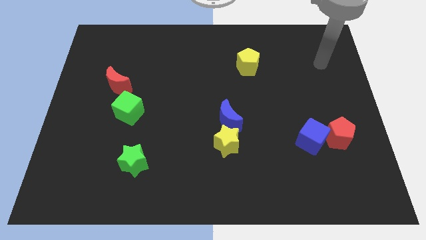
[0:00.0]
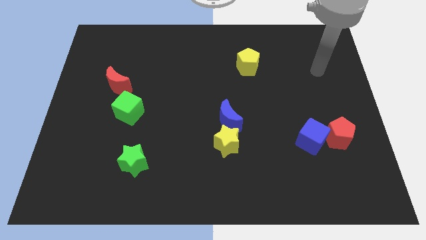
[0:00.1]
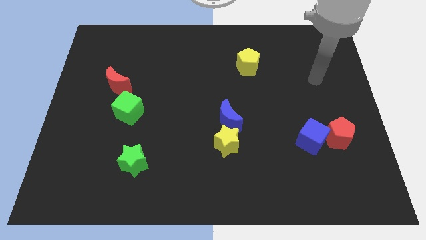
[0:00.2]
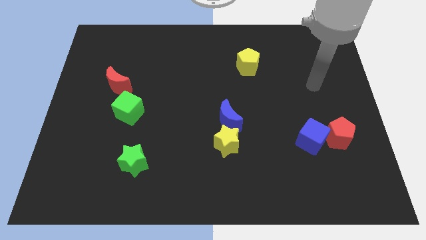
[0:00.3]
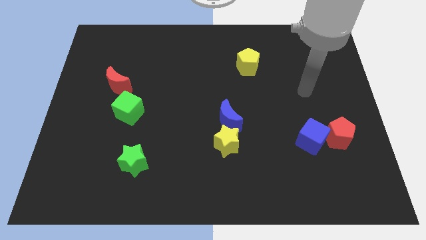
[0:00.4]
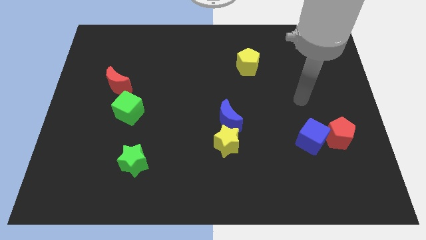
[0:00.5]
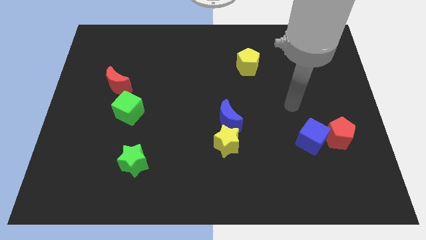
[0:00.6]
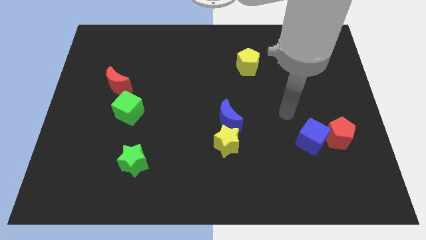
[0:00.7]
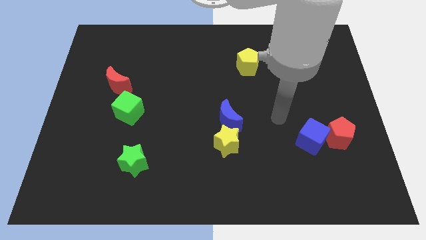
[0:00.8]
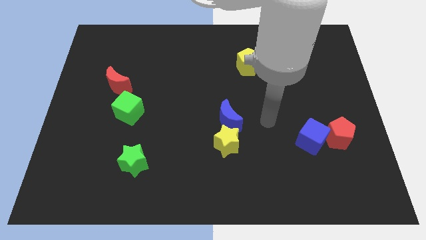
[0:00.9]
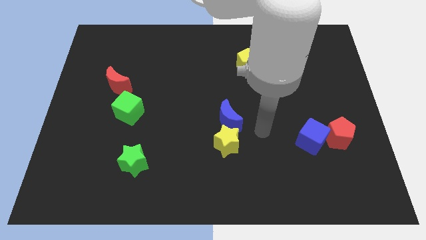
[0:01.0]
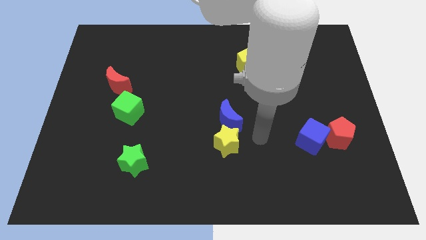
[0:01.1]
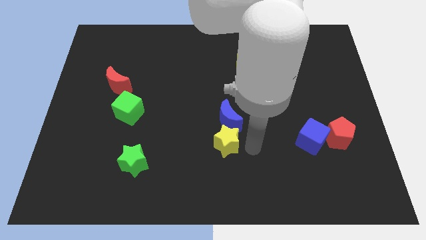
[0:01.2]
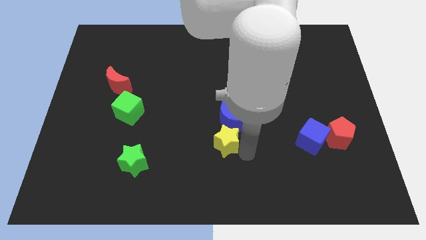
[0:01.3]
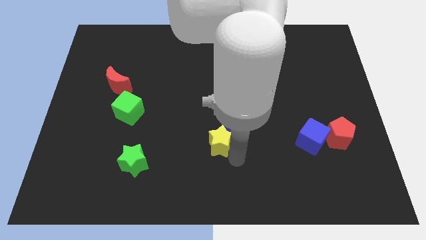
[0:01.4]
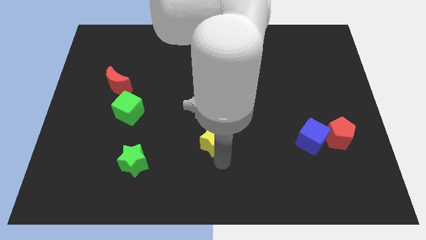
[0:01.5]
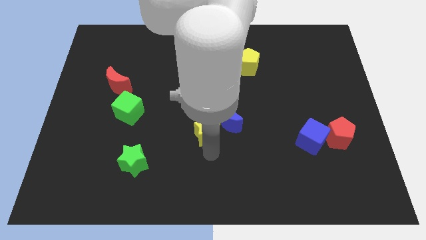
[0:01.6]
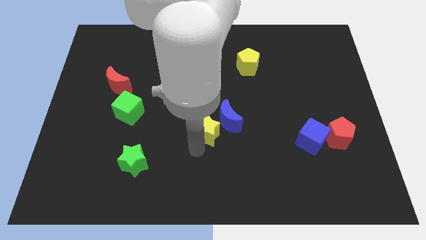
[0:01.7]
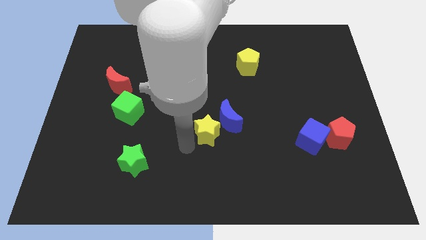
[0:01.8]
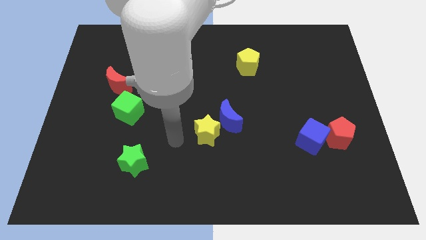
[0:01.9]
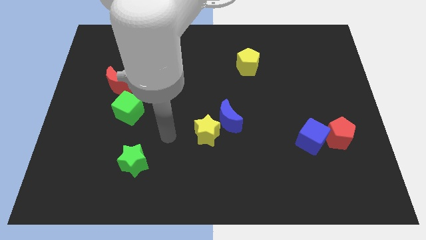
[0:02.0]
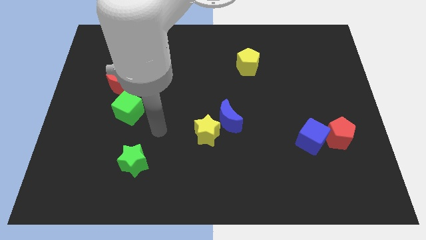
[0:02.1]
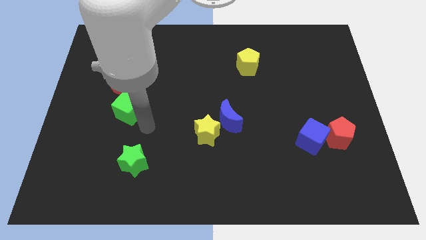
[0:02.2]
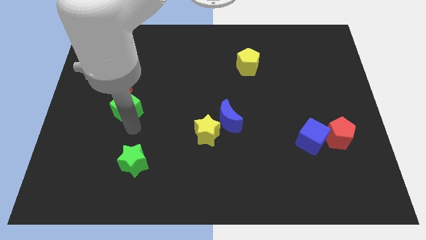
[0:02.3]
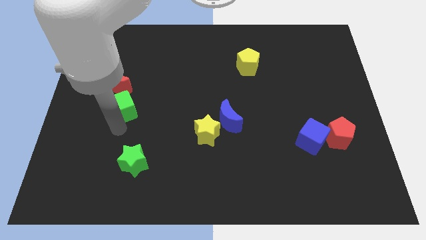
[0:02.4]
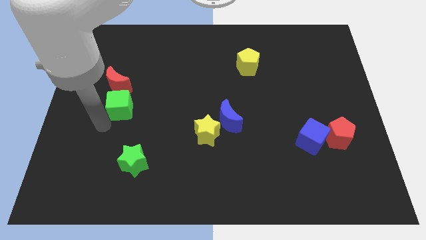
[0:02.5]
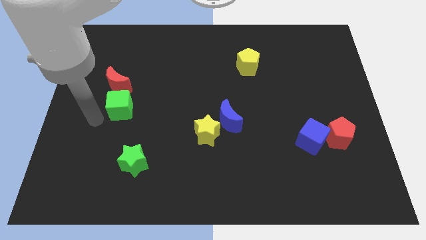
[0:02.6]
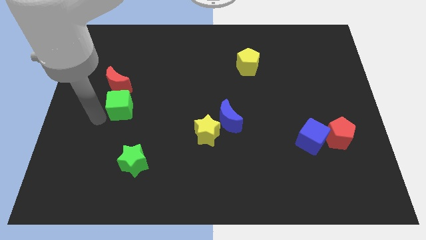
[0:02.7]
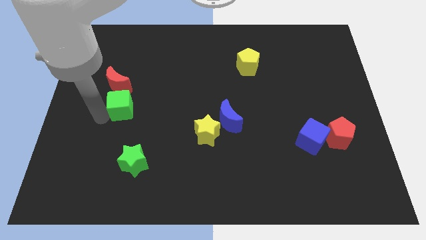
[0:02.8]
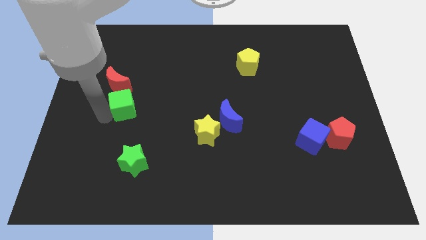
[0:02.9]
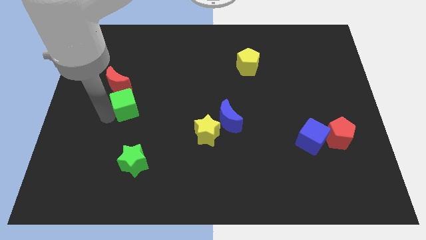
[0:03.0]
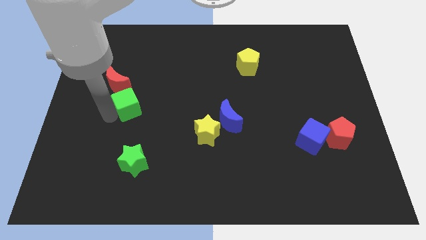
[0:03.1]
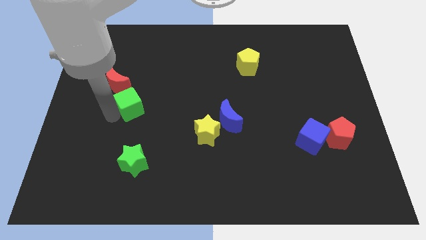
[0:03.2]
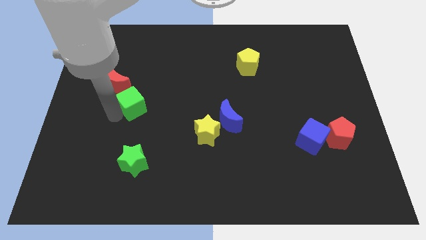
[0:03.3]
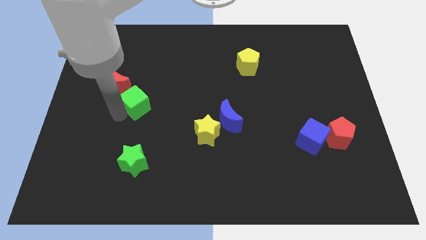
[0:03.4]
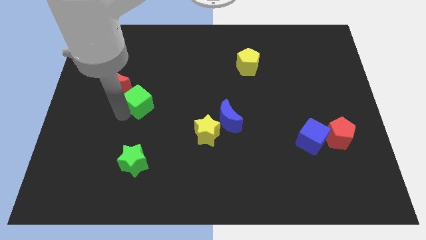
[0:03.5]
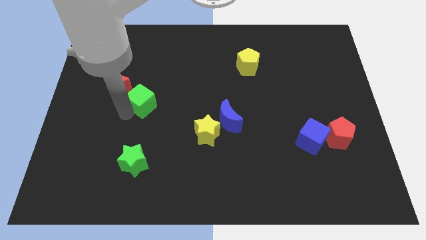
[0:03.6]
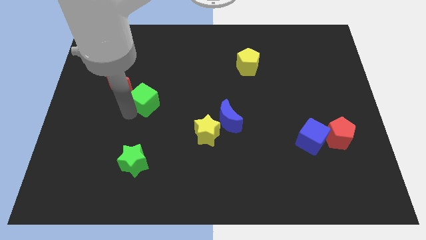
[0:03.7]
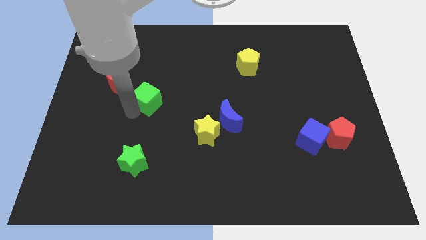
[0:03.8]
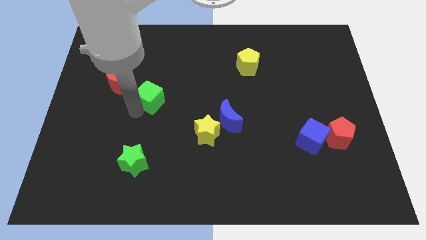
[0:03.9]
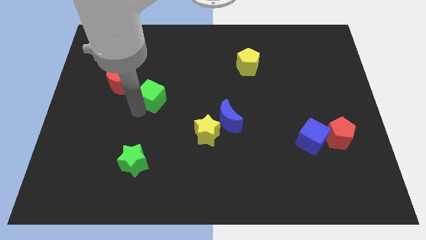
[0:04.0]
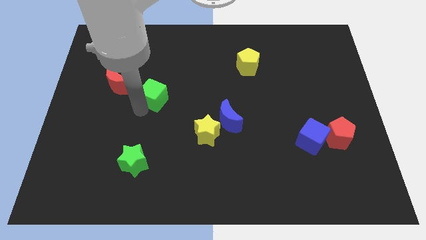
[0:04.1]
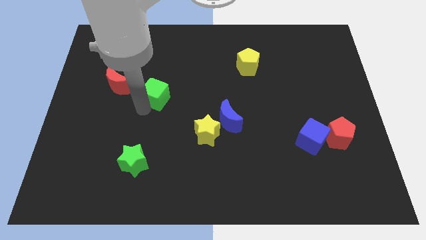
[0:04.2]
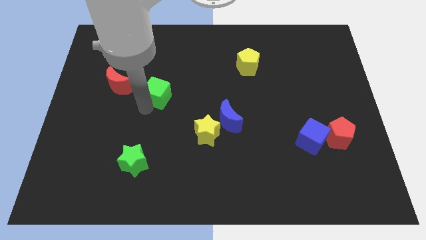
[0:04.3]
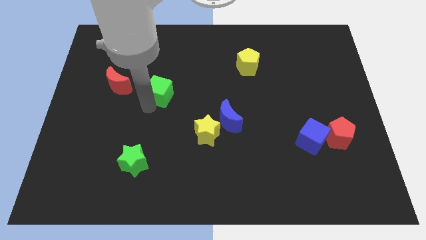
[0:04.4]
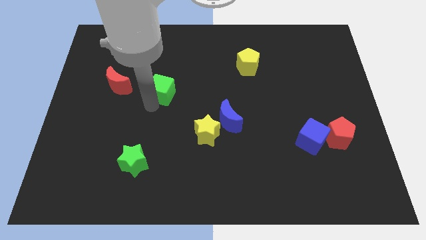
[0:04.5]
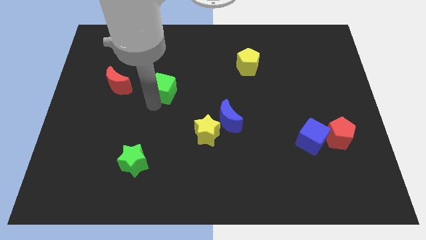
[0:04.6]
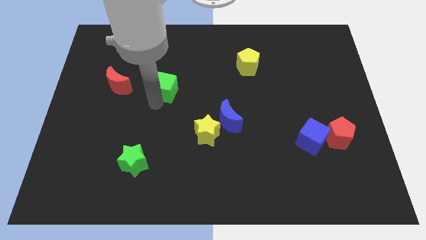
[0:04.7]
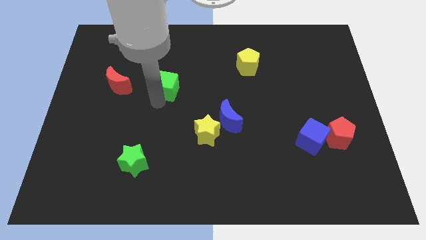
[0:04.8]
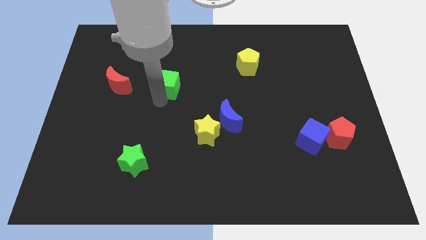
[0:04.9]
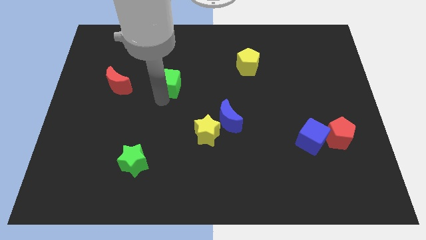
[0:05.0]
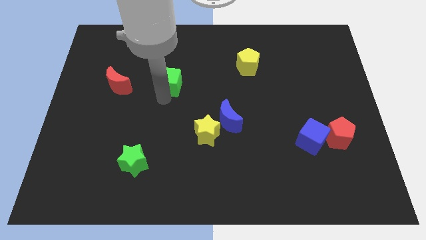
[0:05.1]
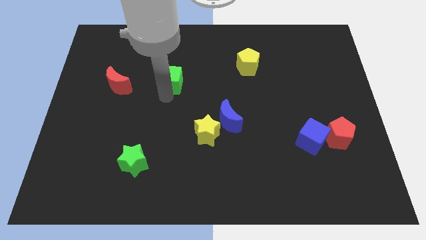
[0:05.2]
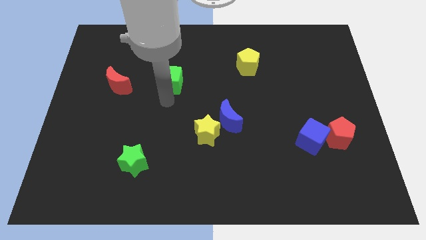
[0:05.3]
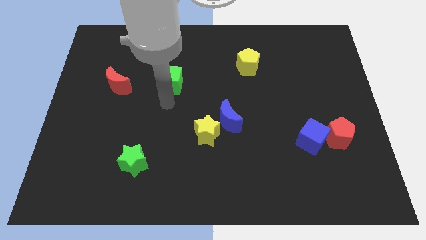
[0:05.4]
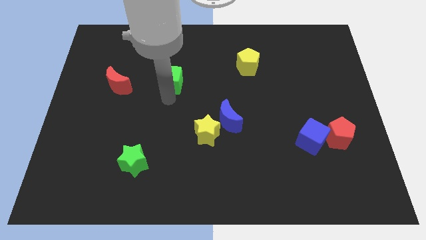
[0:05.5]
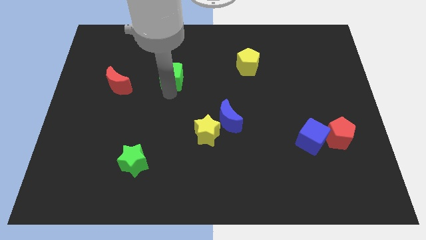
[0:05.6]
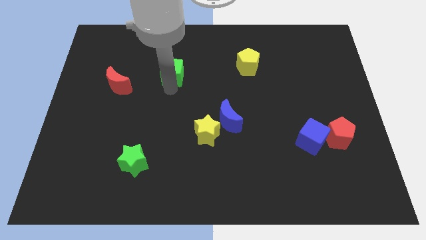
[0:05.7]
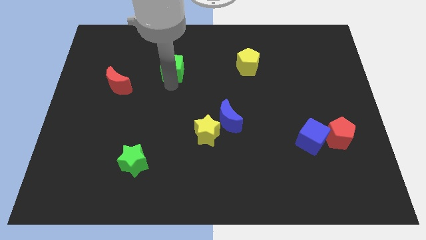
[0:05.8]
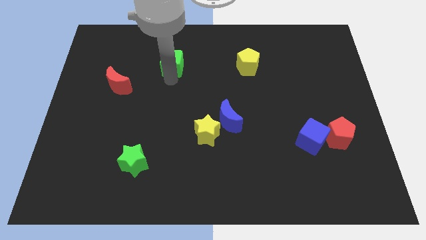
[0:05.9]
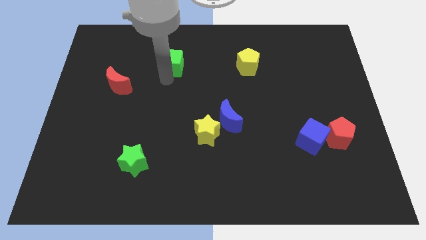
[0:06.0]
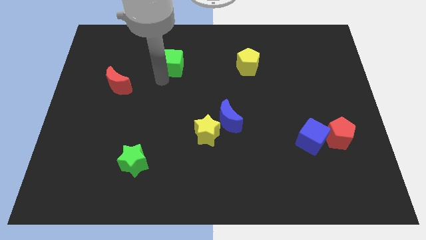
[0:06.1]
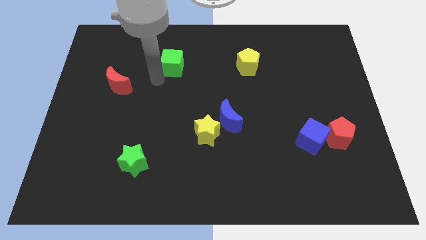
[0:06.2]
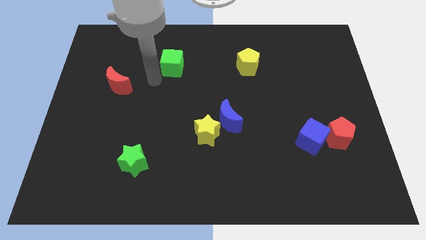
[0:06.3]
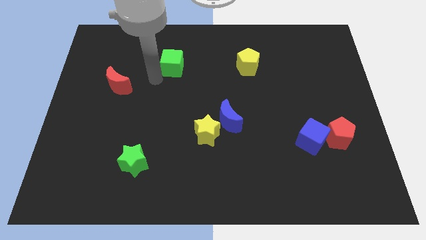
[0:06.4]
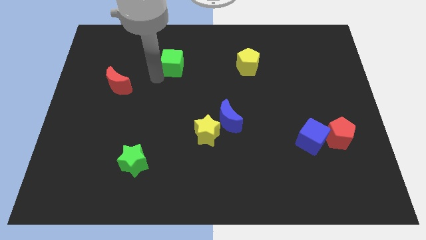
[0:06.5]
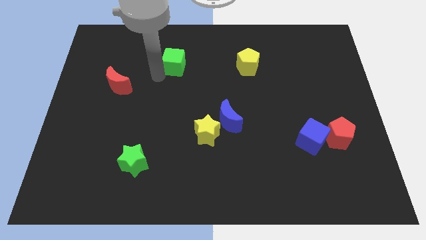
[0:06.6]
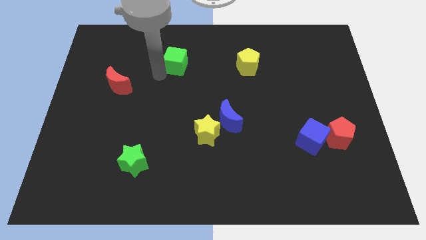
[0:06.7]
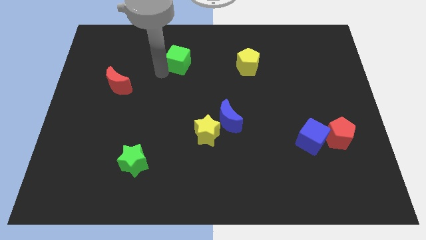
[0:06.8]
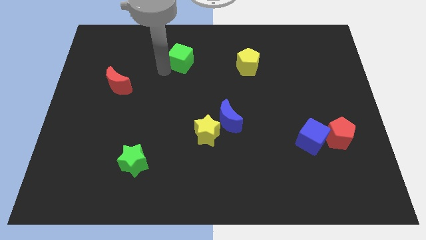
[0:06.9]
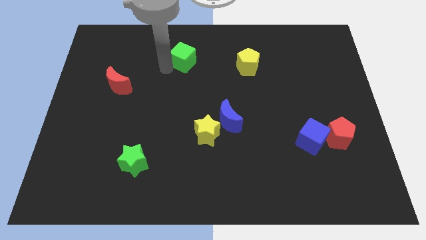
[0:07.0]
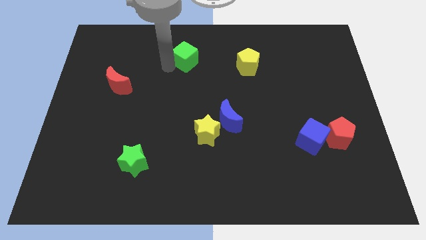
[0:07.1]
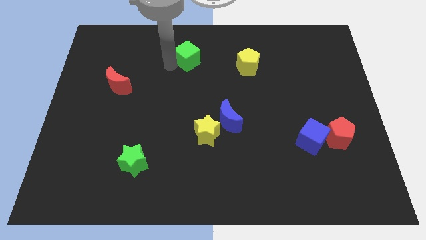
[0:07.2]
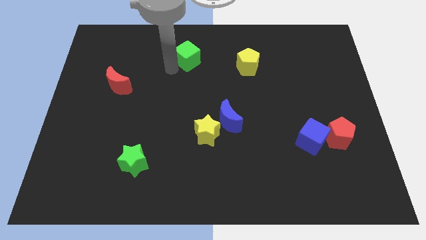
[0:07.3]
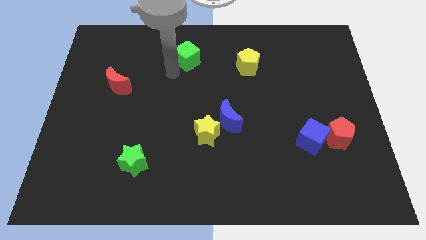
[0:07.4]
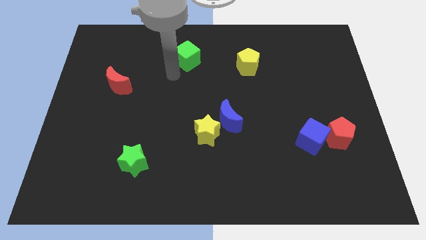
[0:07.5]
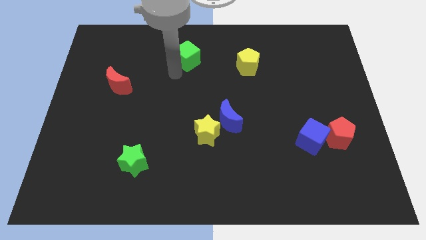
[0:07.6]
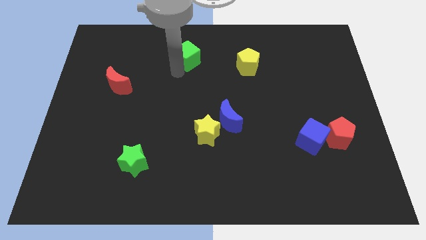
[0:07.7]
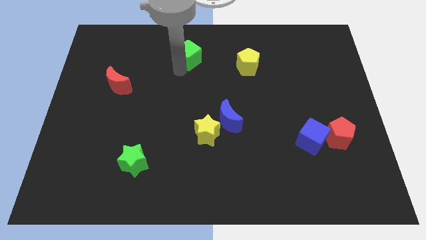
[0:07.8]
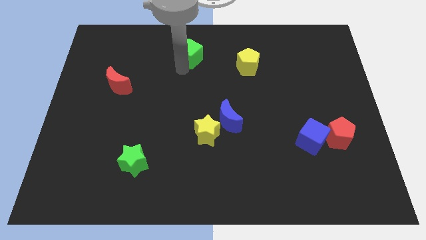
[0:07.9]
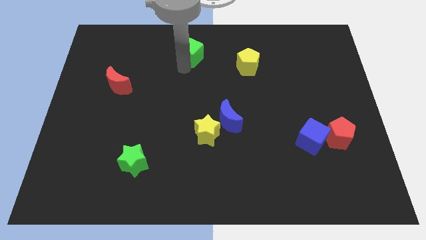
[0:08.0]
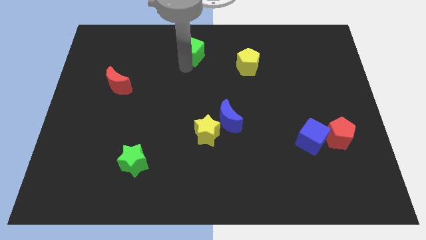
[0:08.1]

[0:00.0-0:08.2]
slide the green cube to the top side
